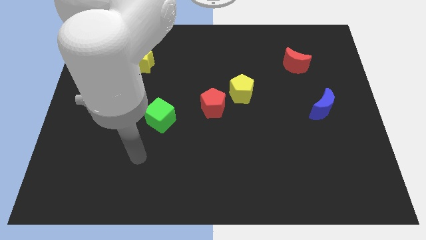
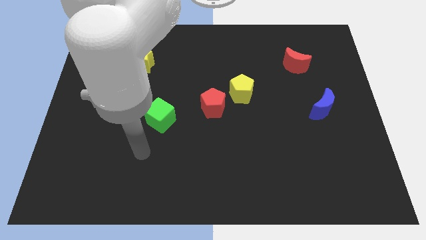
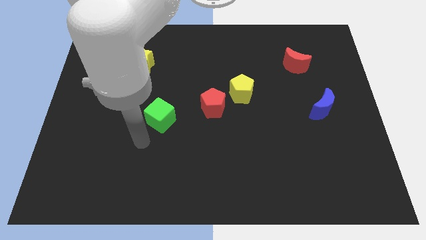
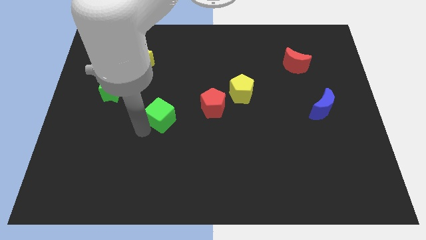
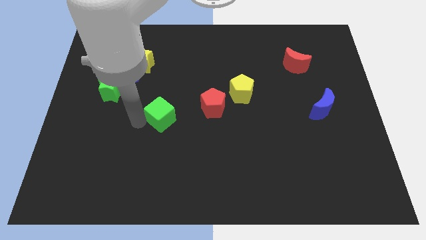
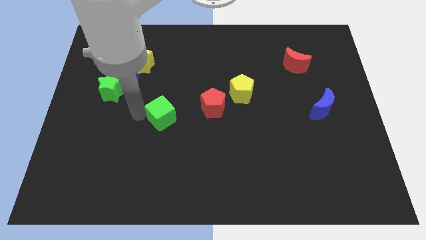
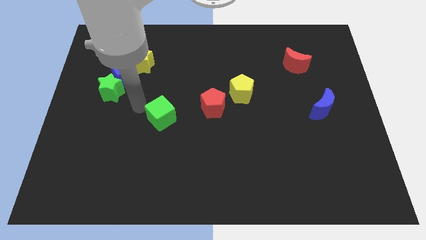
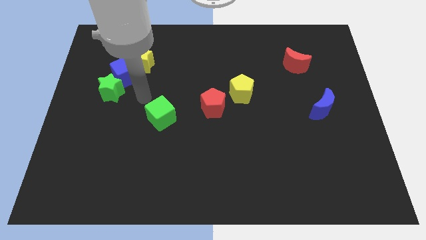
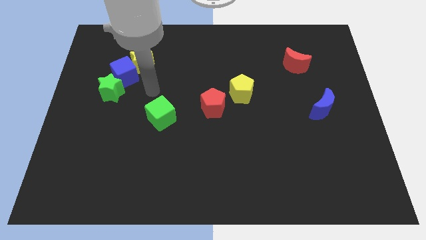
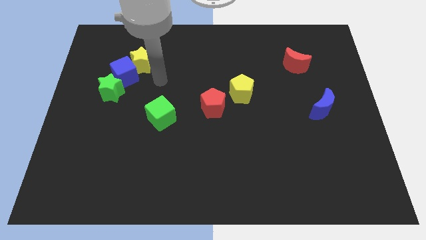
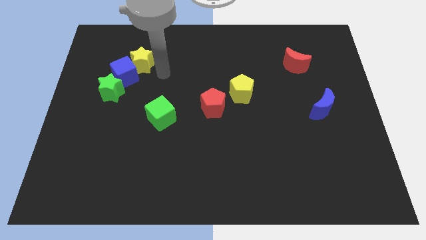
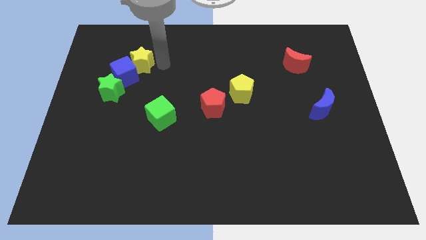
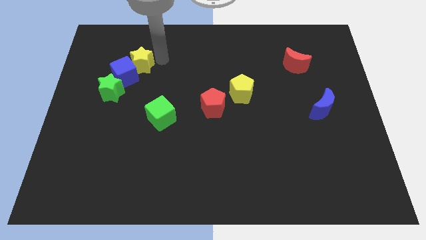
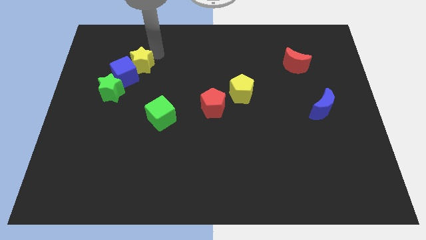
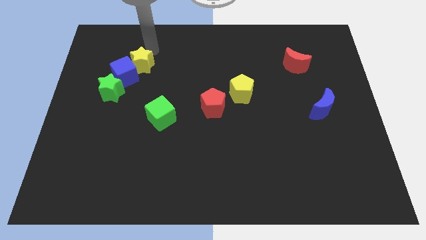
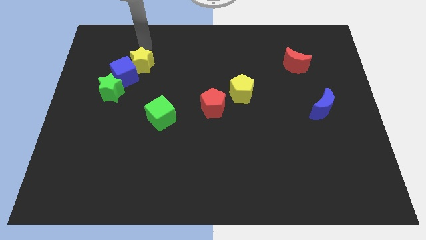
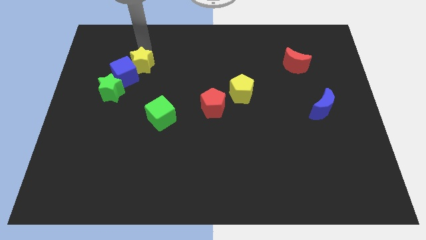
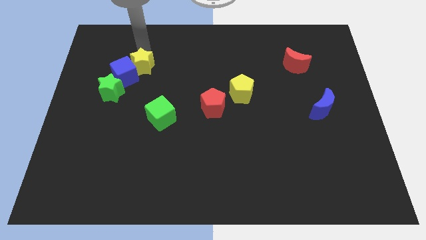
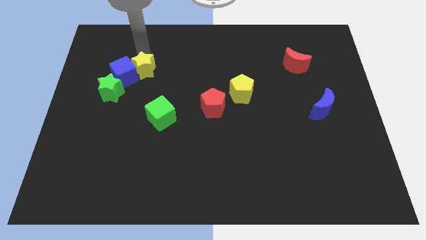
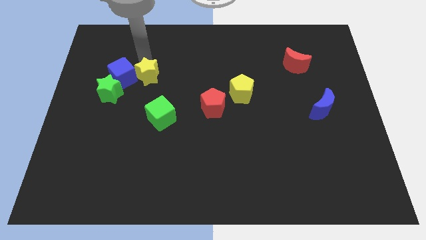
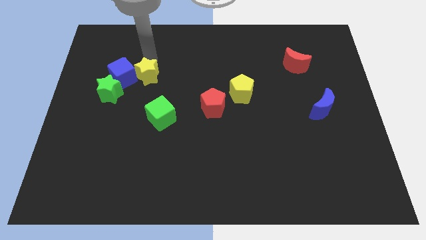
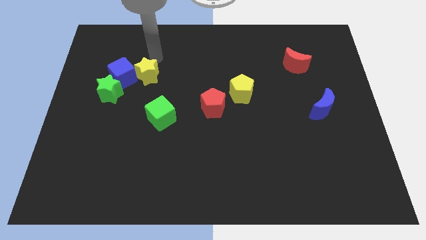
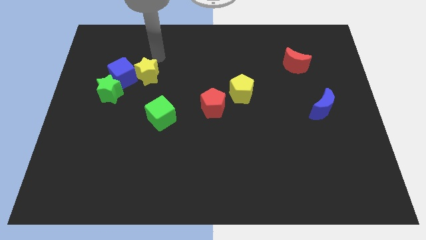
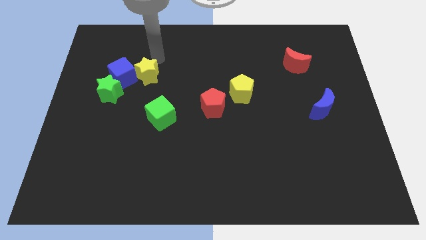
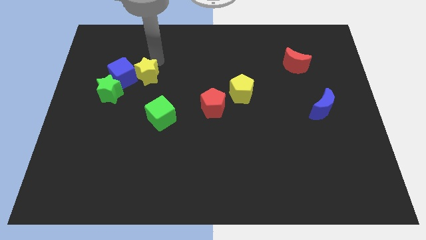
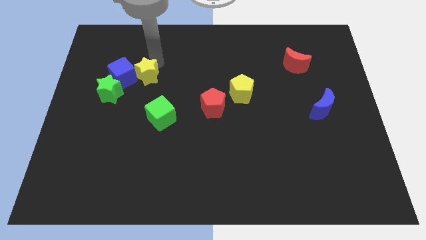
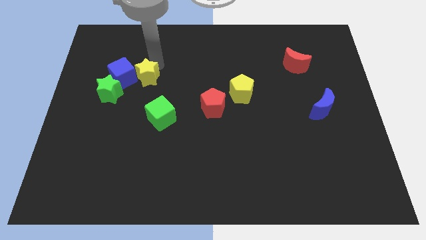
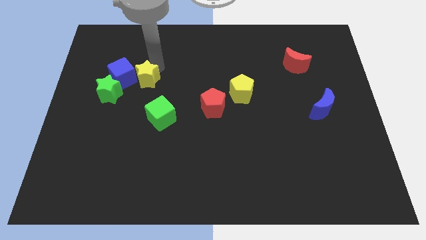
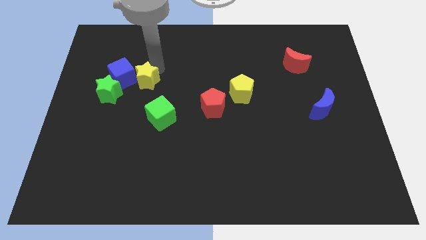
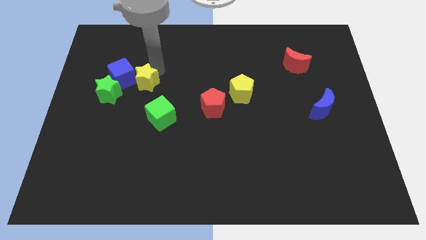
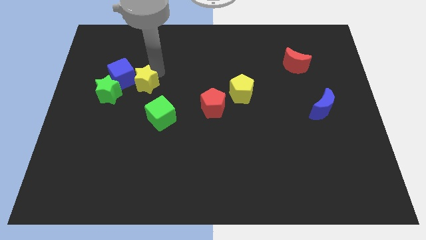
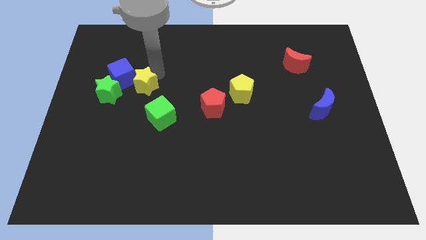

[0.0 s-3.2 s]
slightly slide the yellow star down

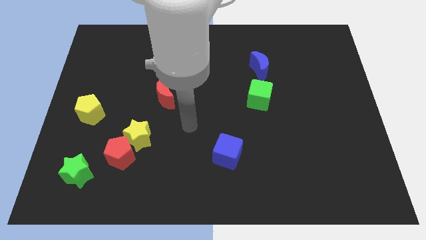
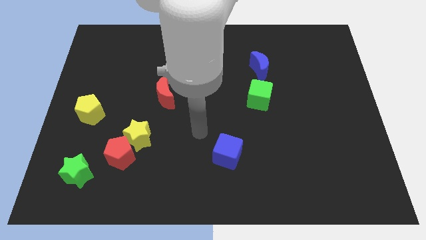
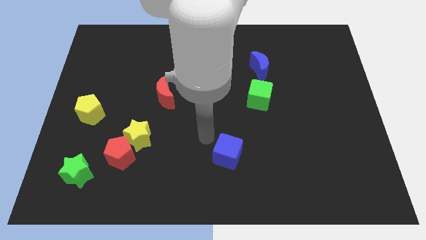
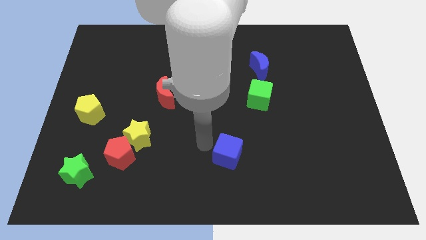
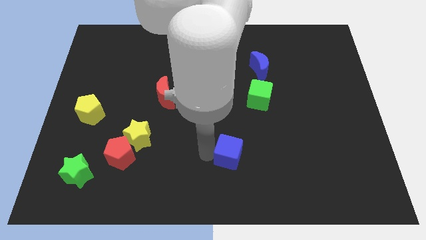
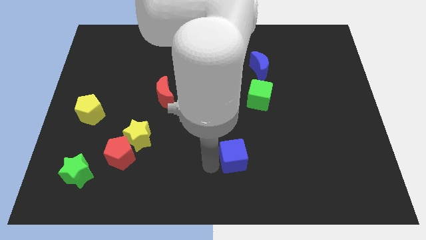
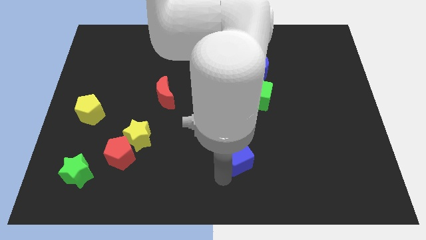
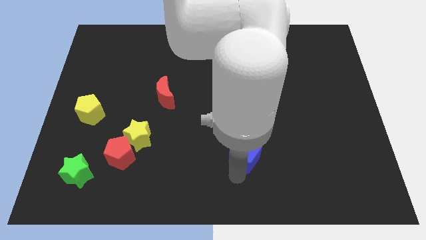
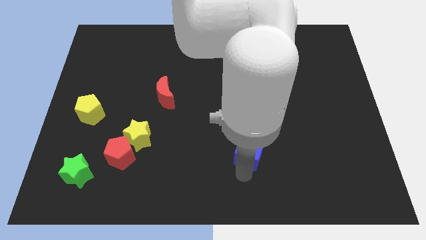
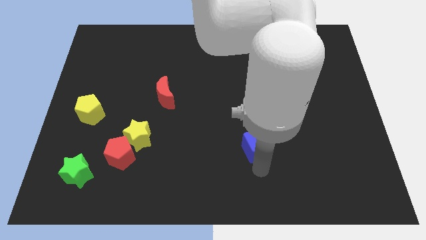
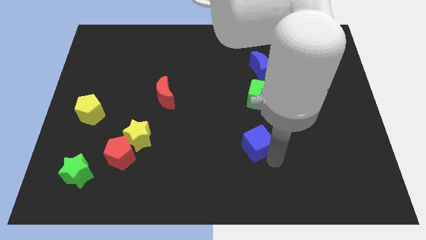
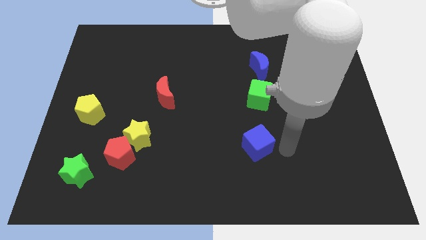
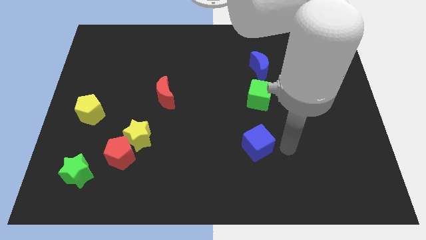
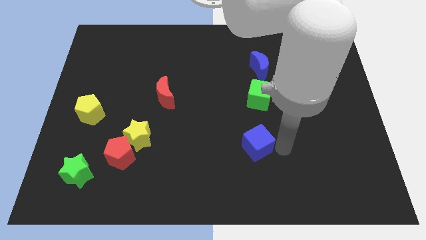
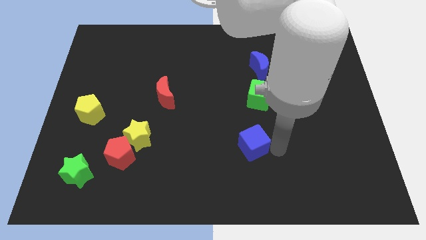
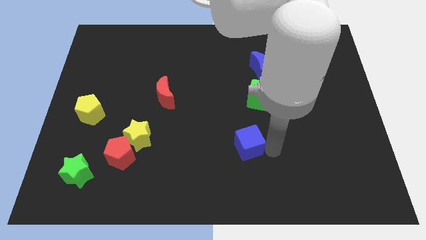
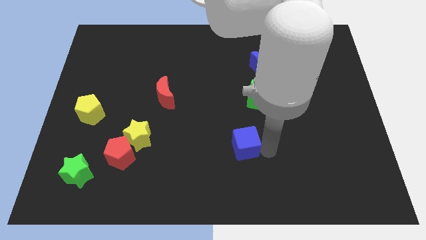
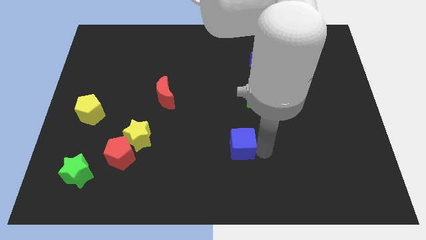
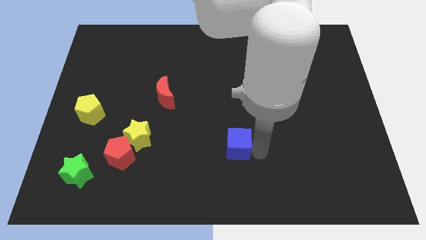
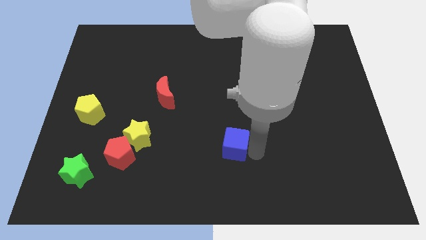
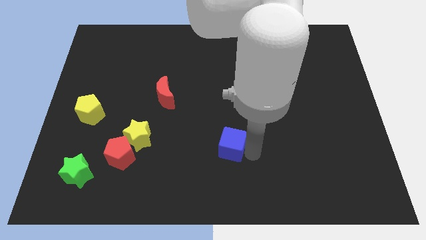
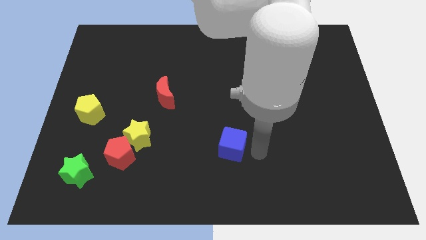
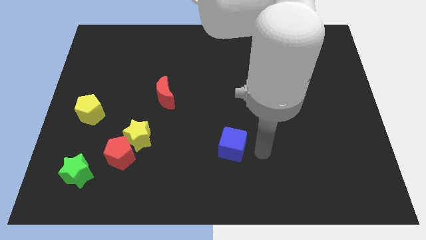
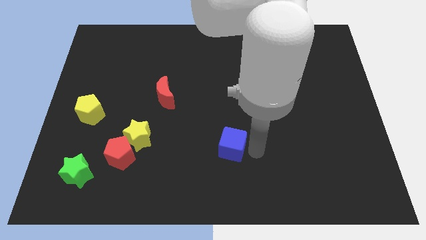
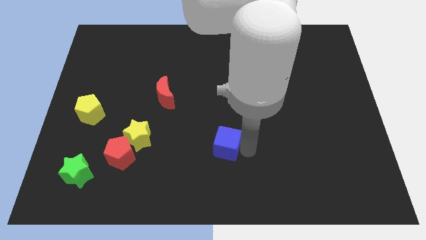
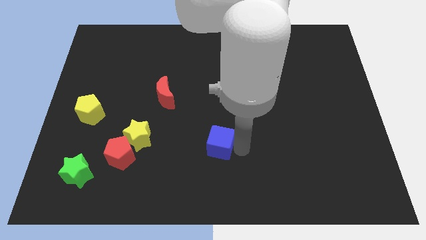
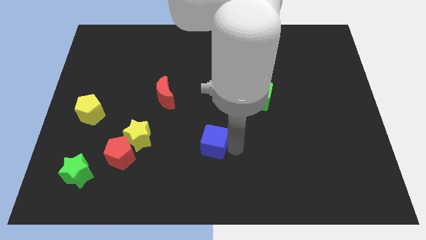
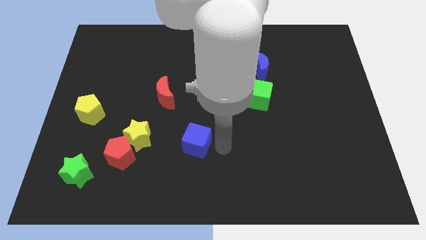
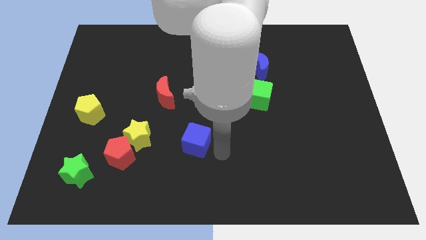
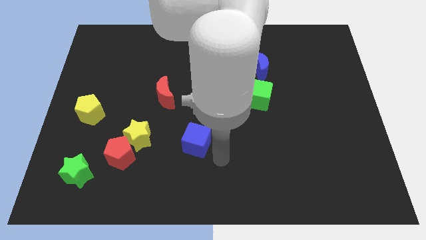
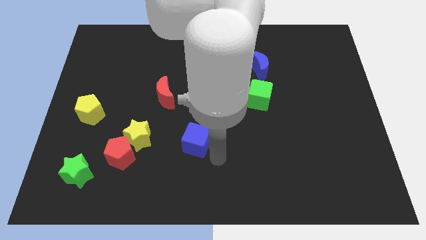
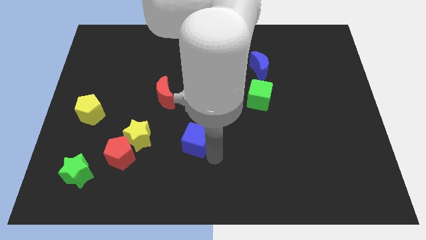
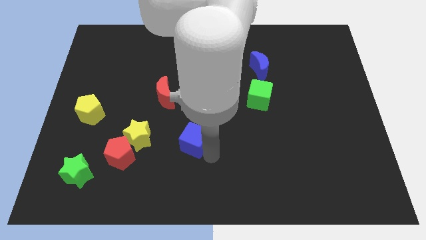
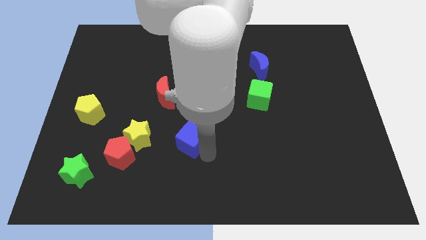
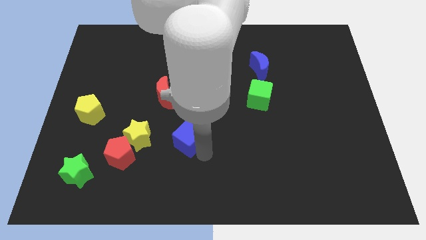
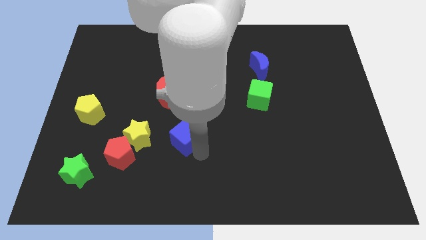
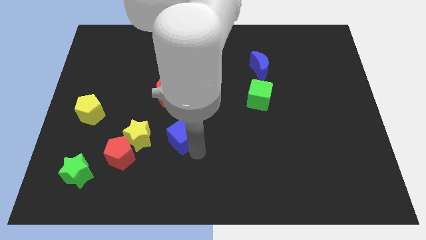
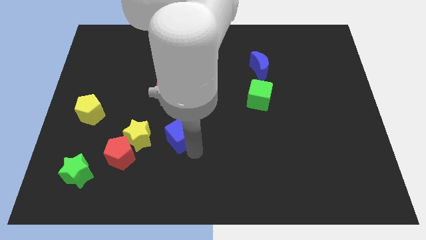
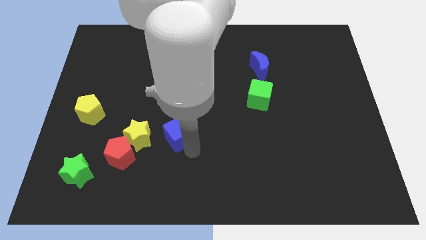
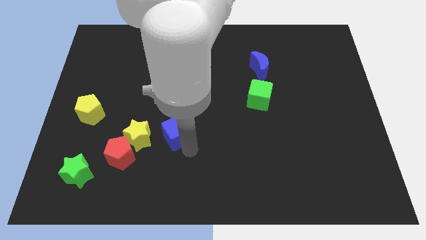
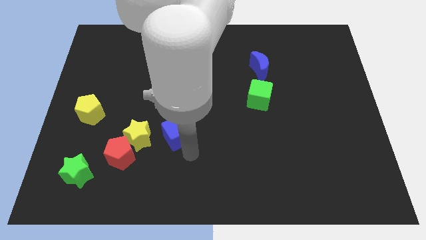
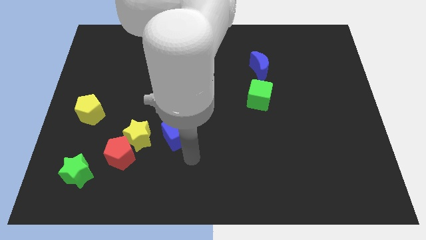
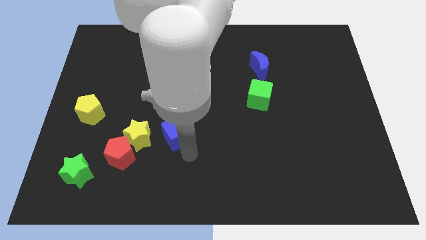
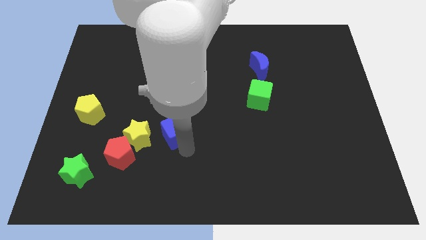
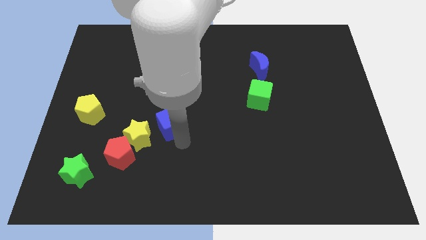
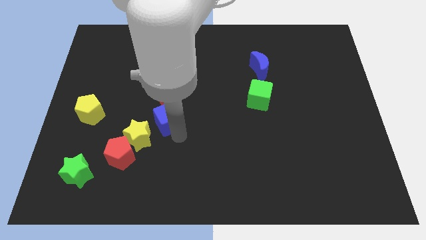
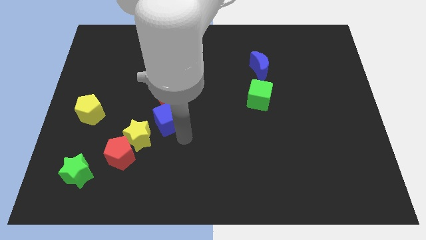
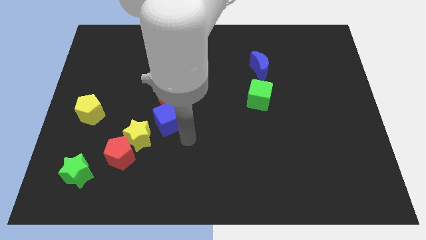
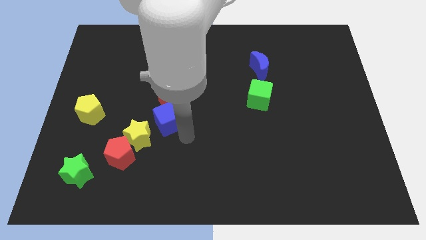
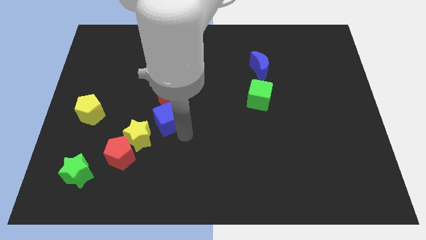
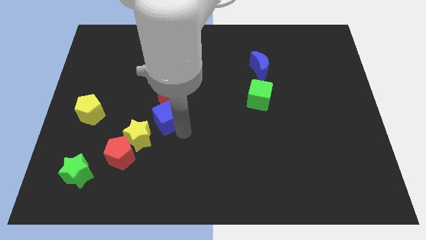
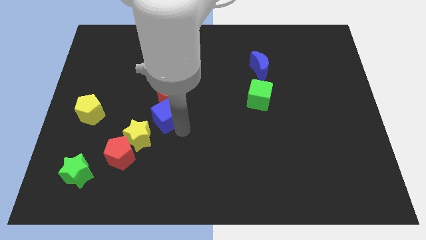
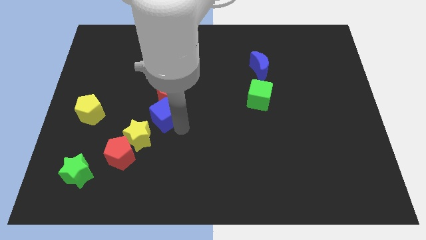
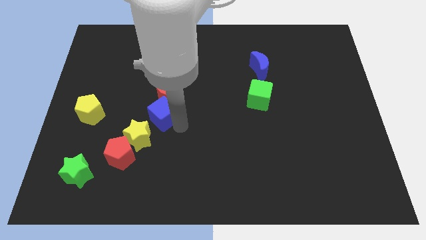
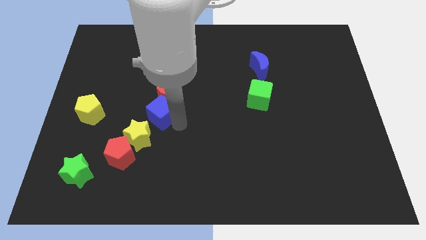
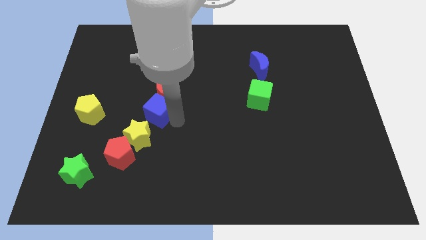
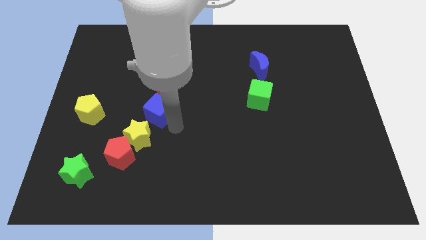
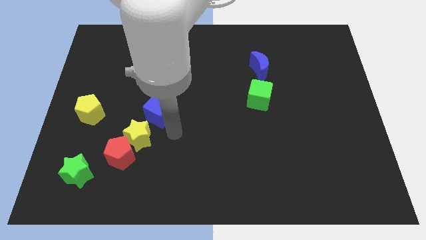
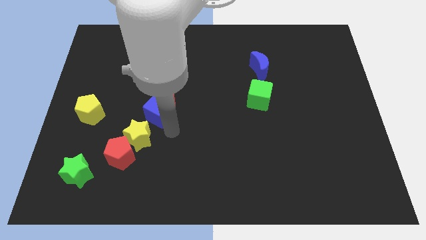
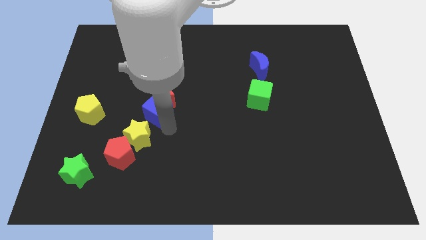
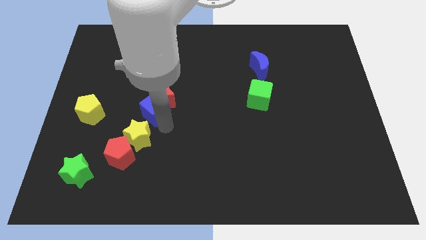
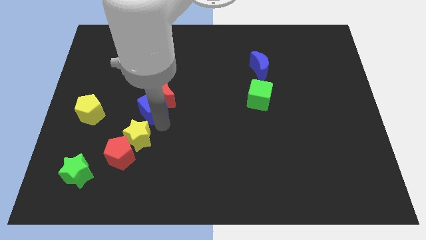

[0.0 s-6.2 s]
push the blue cube upwards and left
